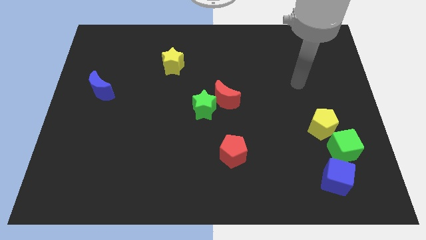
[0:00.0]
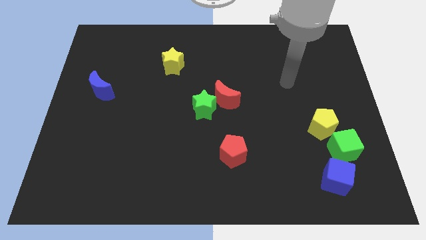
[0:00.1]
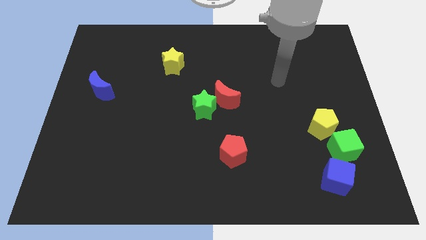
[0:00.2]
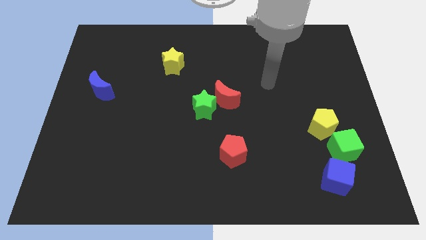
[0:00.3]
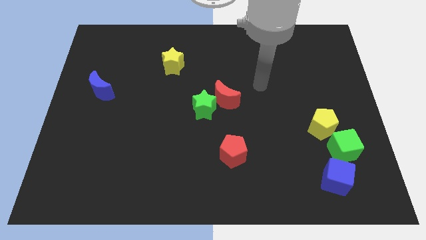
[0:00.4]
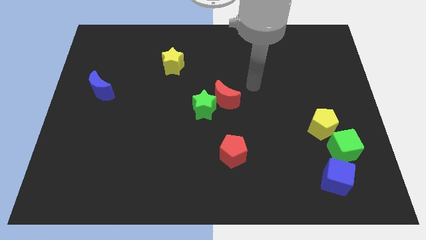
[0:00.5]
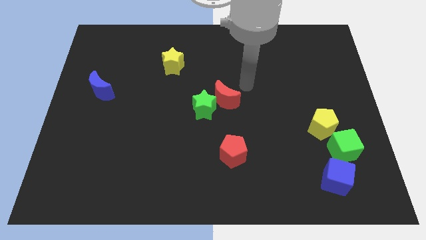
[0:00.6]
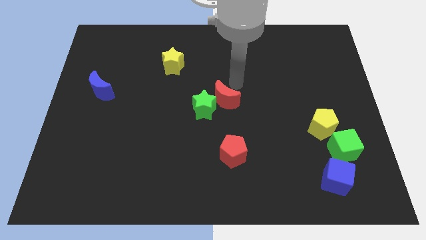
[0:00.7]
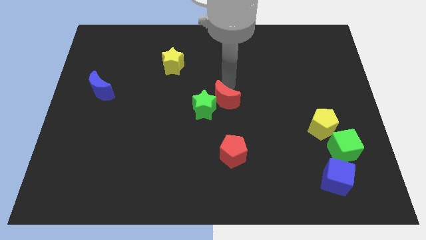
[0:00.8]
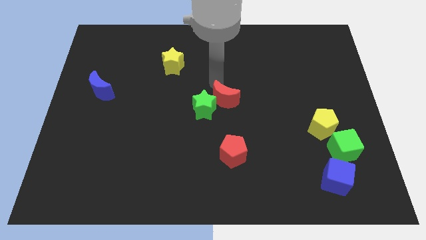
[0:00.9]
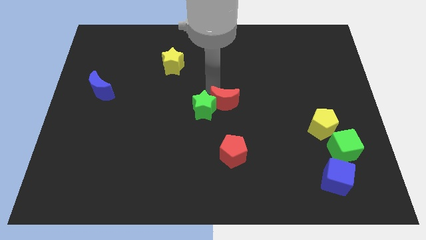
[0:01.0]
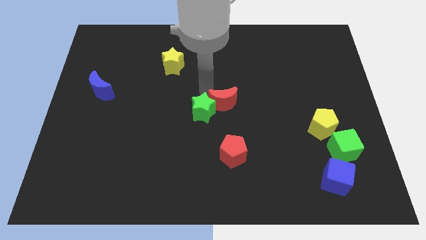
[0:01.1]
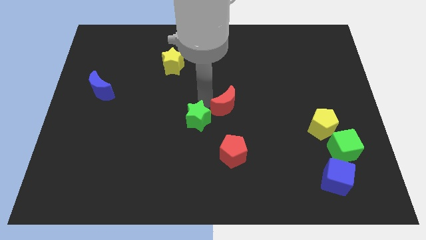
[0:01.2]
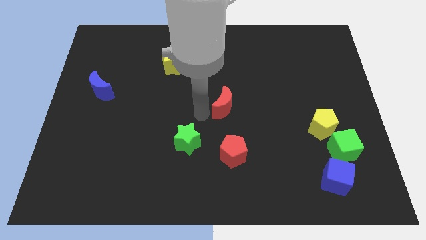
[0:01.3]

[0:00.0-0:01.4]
move the red moon away from the green star

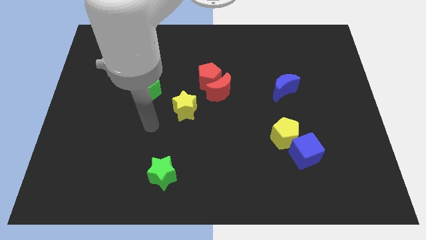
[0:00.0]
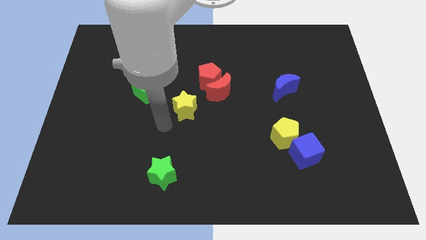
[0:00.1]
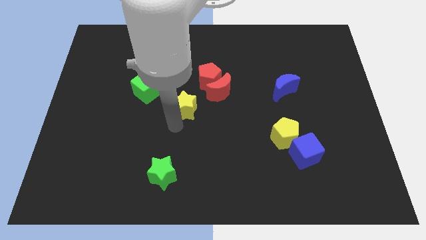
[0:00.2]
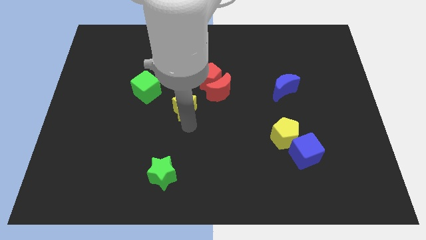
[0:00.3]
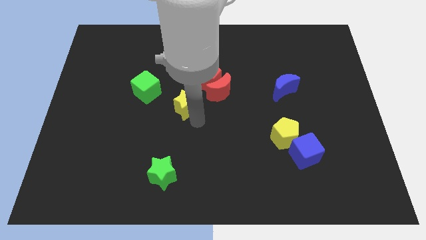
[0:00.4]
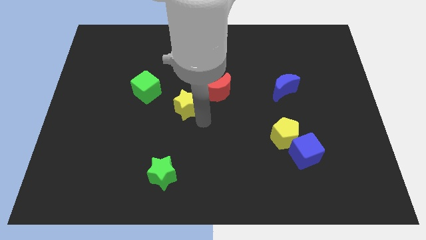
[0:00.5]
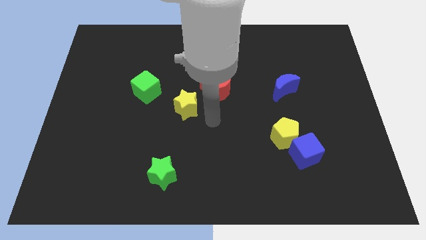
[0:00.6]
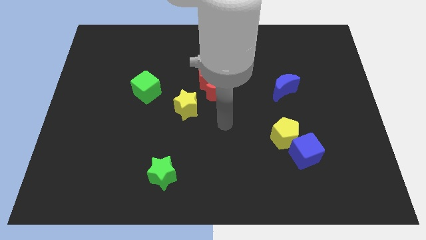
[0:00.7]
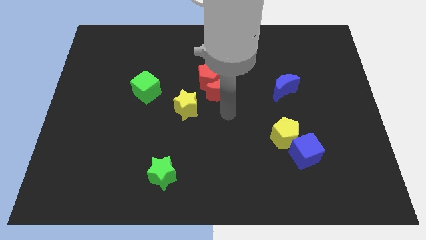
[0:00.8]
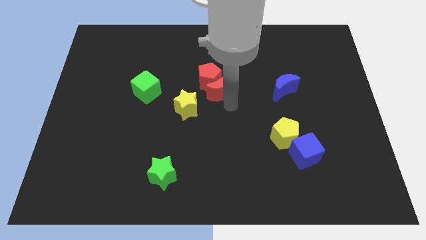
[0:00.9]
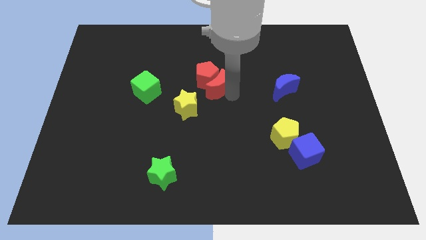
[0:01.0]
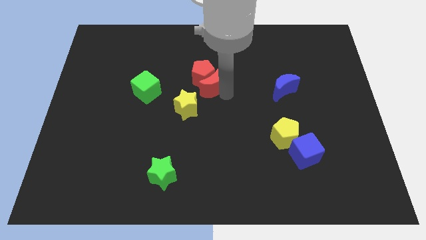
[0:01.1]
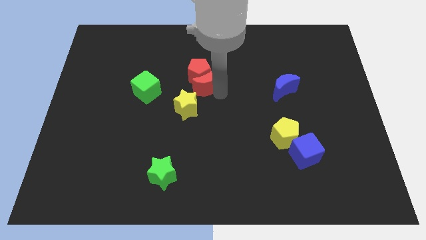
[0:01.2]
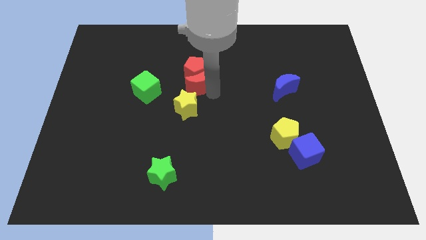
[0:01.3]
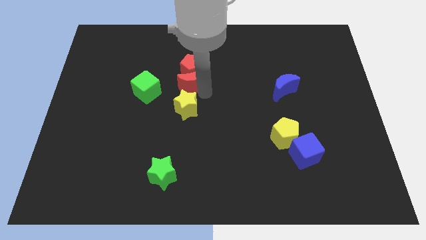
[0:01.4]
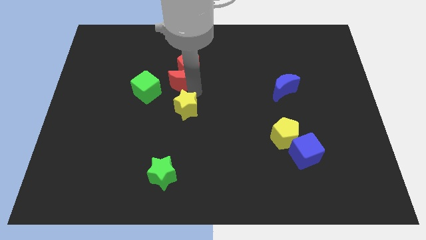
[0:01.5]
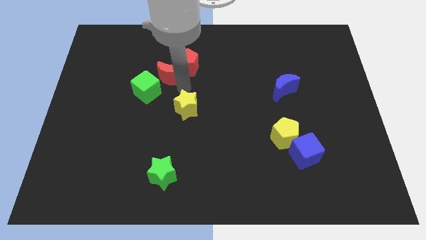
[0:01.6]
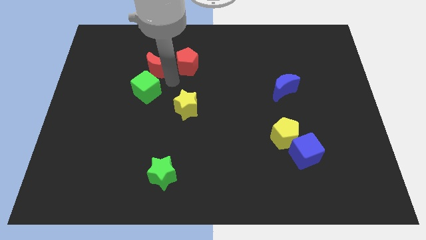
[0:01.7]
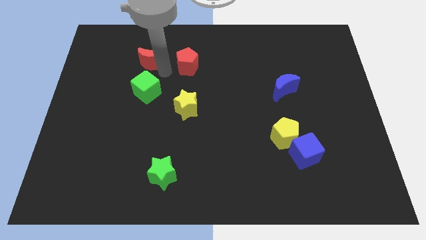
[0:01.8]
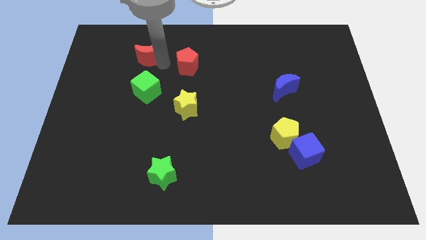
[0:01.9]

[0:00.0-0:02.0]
separate the red pentagon from the red moon

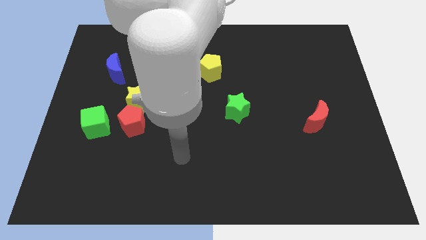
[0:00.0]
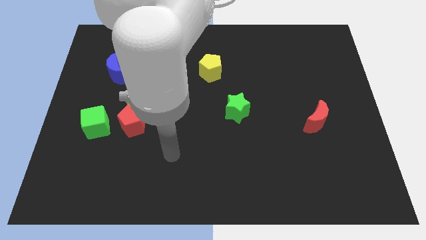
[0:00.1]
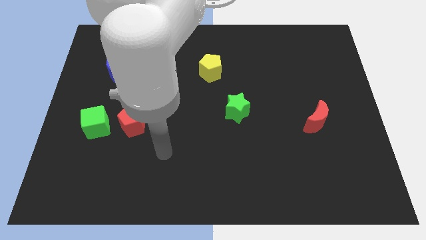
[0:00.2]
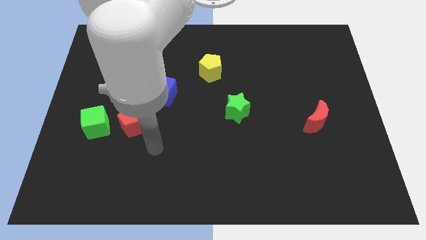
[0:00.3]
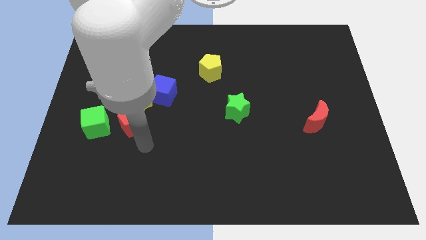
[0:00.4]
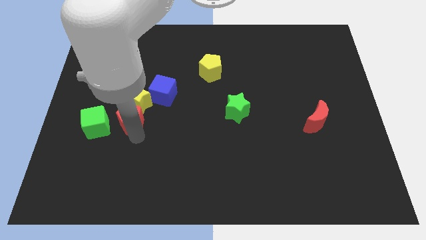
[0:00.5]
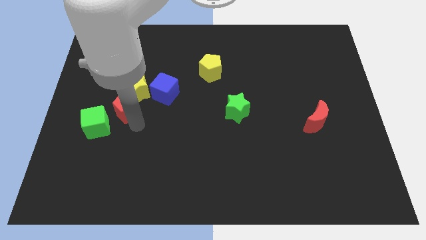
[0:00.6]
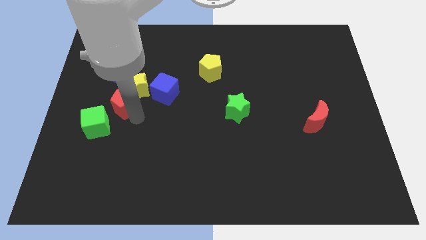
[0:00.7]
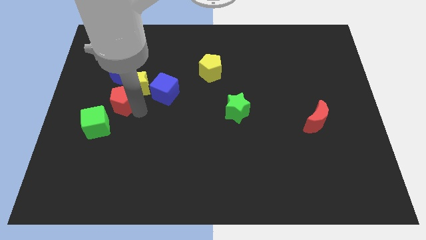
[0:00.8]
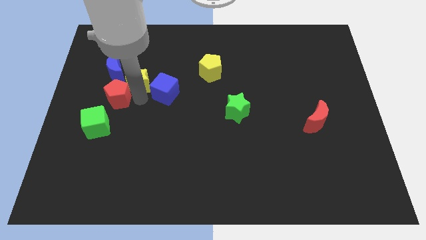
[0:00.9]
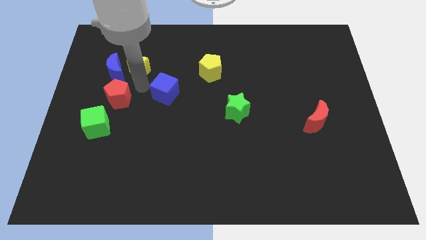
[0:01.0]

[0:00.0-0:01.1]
move the blue cube away from the yellow star

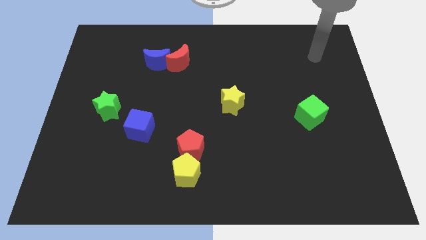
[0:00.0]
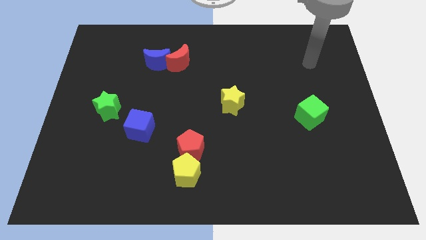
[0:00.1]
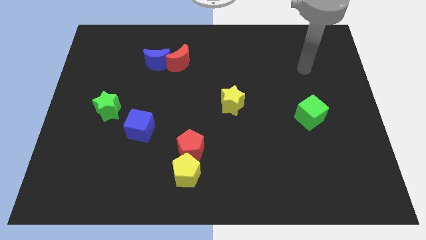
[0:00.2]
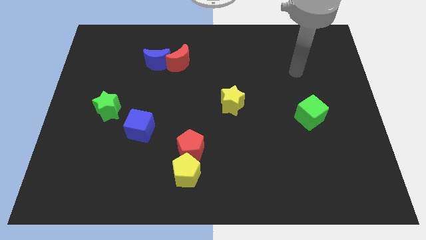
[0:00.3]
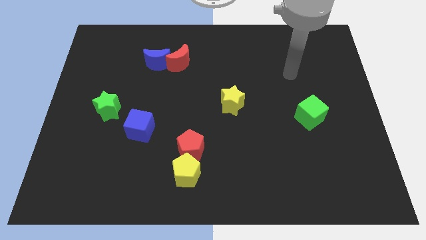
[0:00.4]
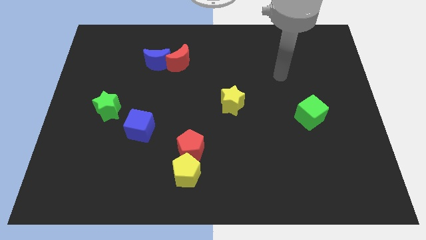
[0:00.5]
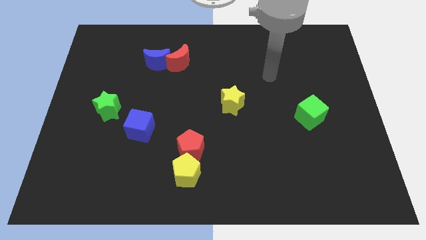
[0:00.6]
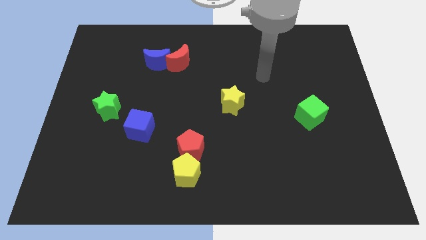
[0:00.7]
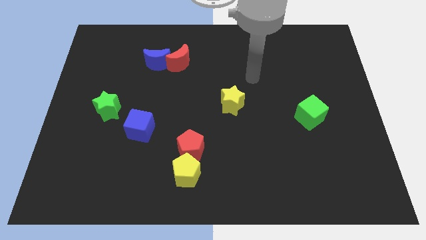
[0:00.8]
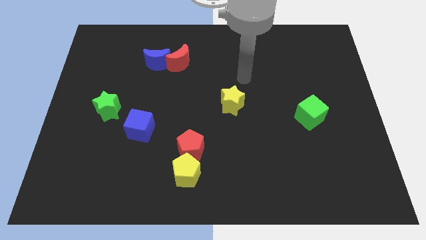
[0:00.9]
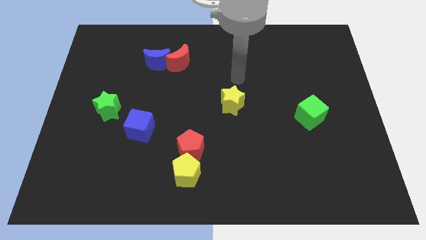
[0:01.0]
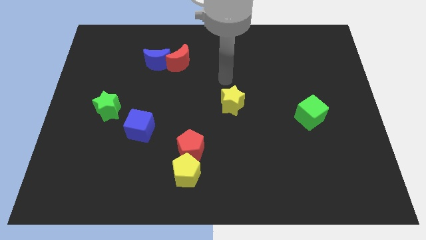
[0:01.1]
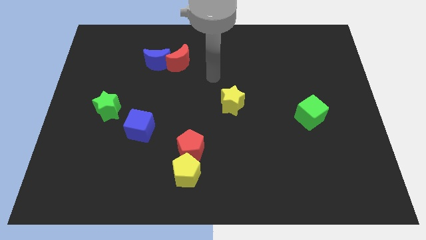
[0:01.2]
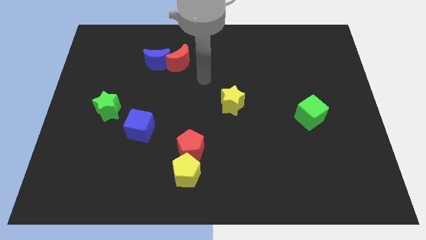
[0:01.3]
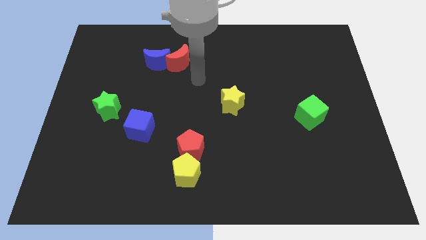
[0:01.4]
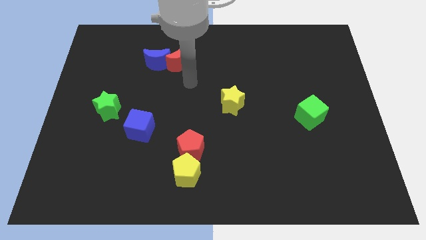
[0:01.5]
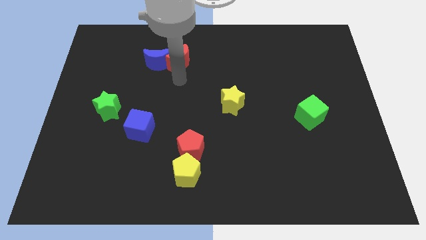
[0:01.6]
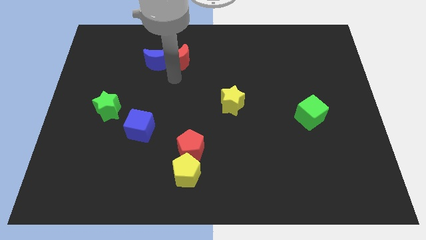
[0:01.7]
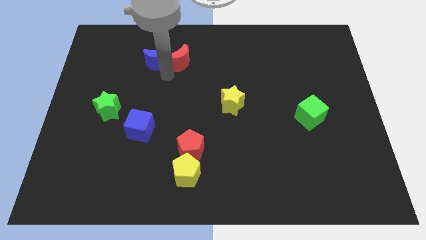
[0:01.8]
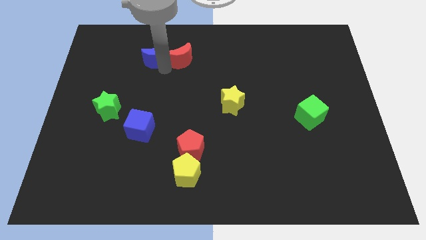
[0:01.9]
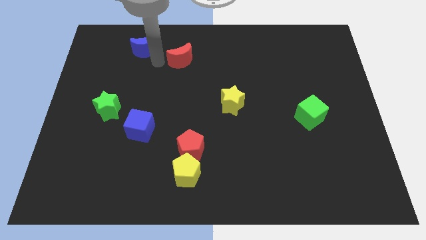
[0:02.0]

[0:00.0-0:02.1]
pull the red moon apart from the blue moon

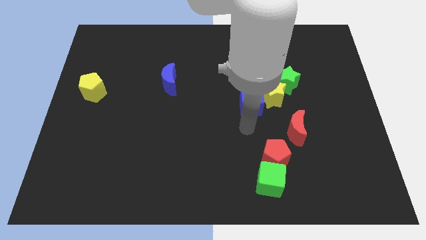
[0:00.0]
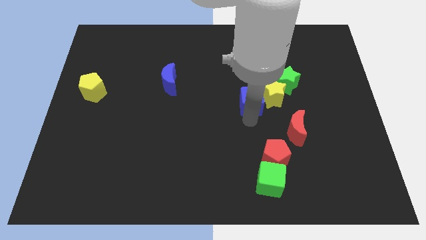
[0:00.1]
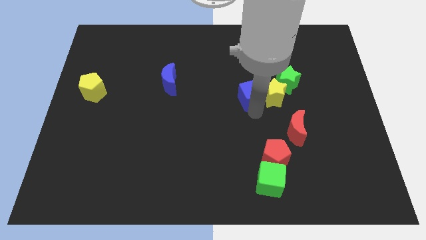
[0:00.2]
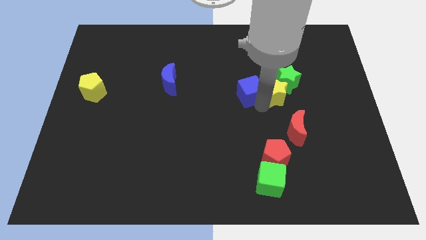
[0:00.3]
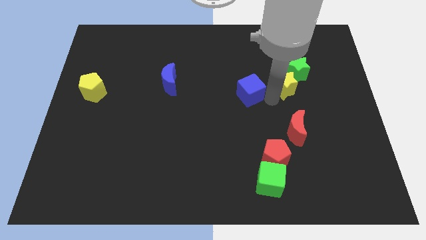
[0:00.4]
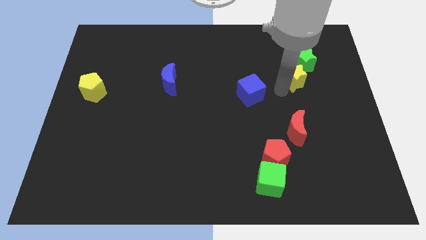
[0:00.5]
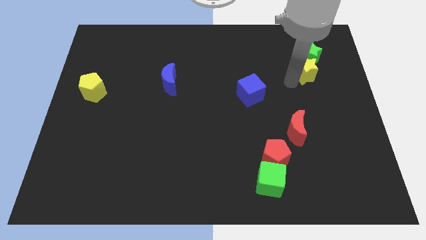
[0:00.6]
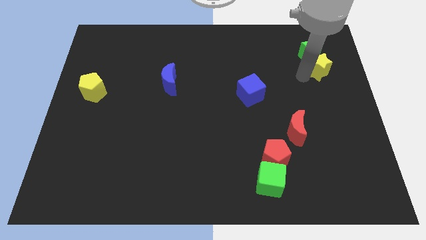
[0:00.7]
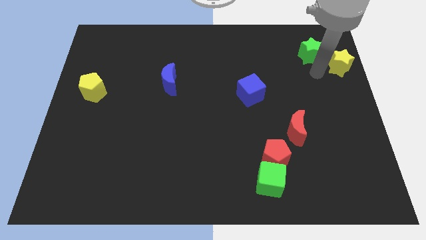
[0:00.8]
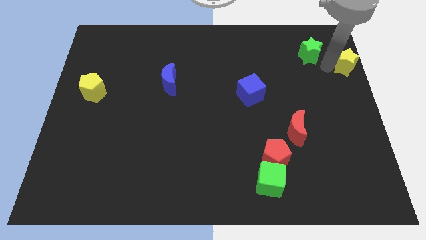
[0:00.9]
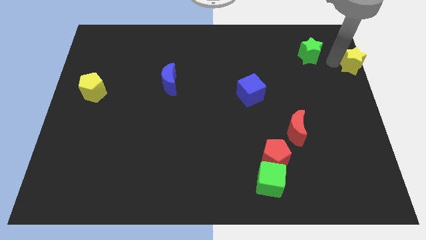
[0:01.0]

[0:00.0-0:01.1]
separate the green star from the yellow star

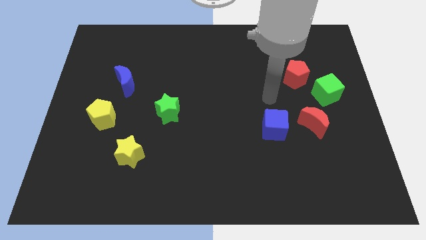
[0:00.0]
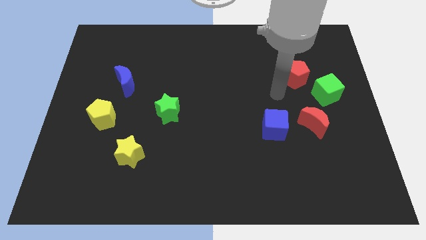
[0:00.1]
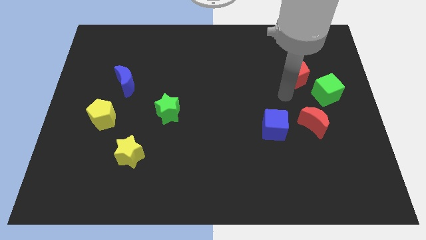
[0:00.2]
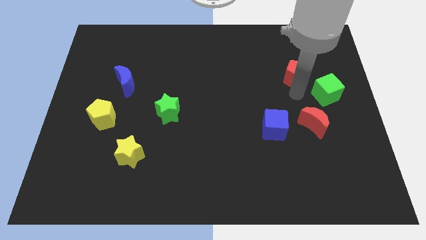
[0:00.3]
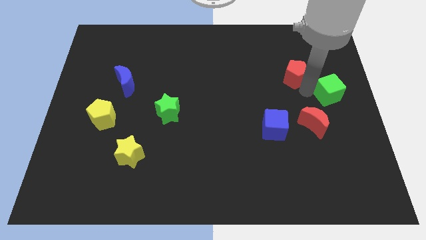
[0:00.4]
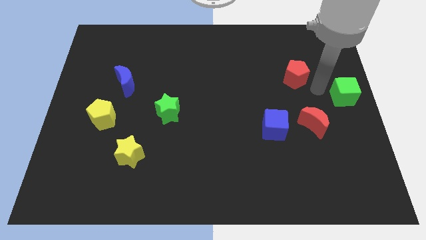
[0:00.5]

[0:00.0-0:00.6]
move the red pentagon away from the green cube

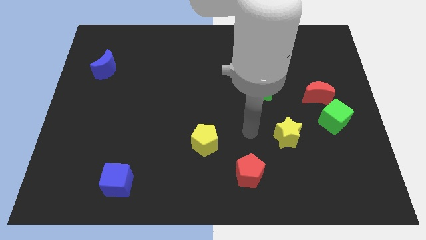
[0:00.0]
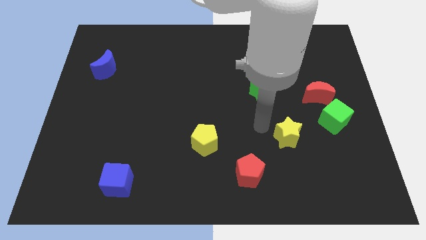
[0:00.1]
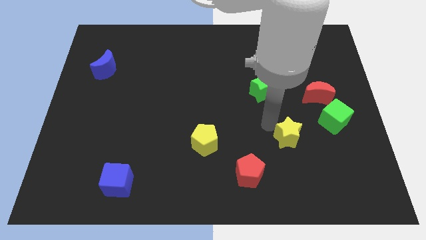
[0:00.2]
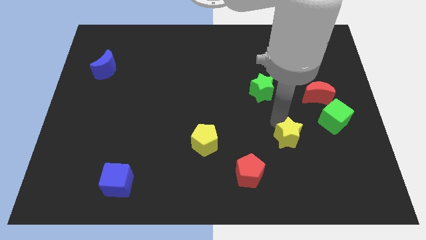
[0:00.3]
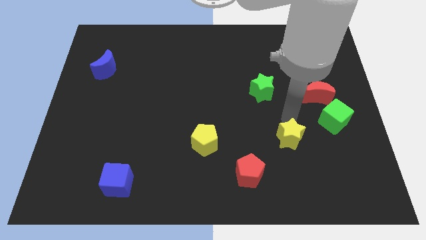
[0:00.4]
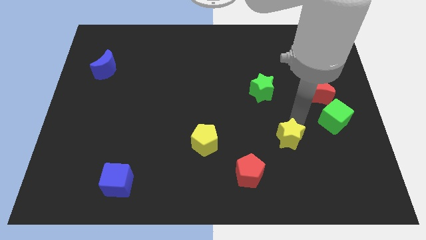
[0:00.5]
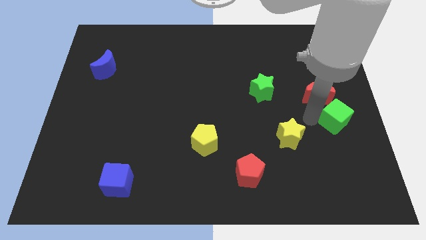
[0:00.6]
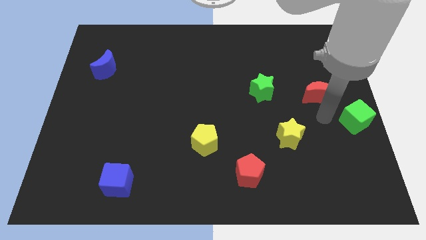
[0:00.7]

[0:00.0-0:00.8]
separate the red moon from the green cube

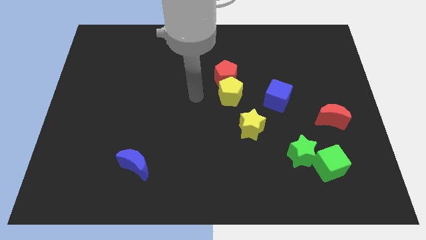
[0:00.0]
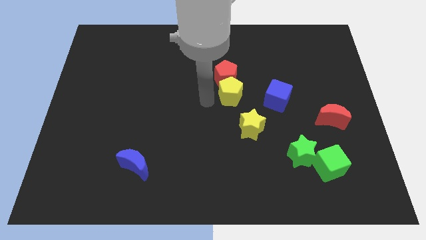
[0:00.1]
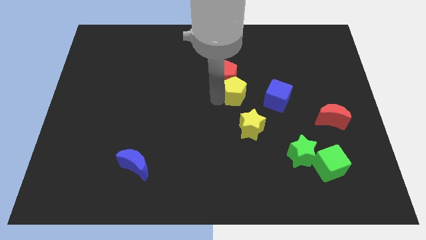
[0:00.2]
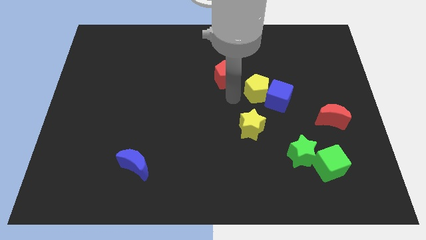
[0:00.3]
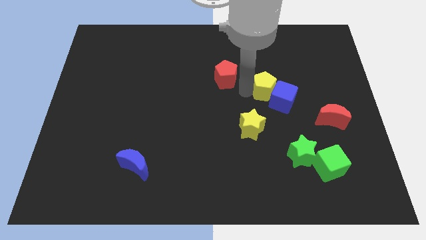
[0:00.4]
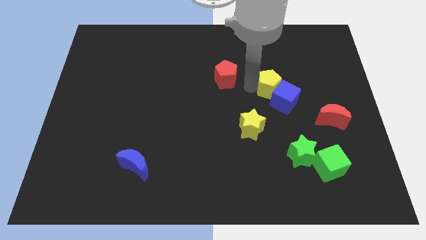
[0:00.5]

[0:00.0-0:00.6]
move the red pentagon away from the yellow pentagon
